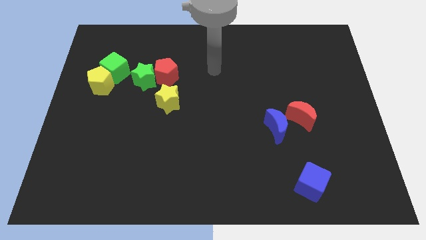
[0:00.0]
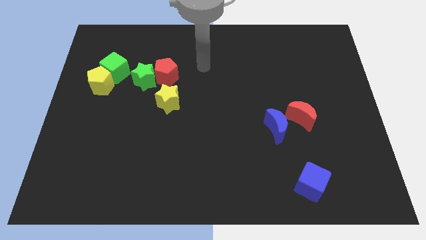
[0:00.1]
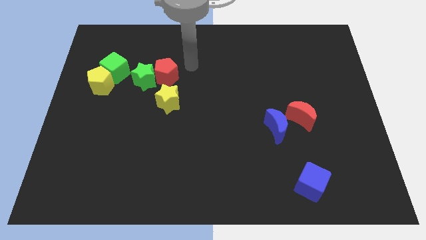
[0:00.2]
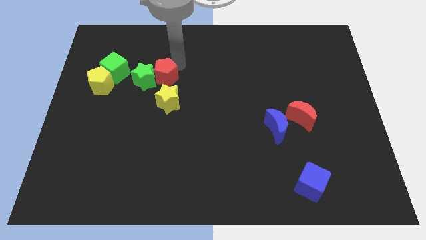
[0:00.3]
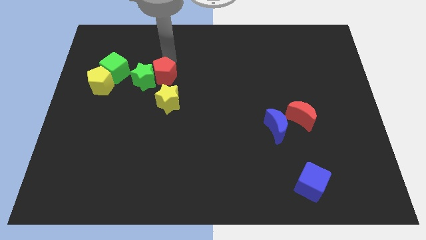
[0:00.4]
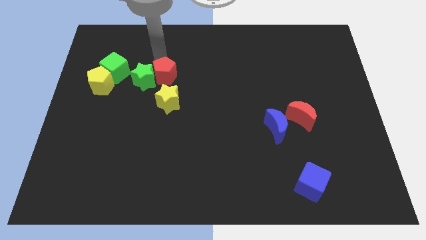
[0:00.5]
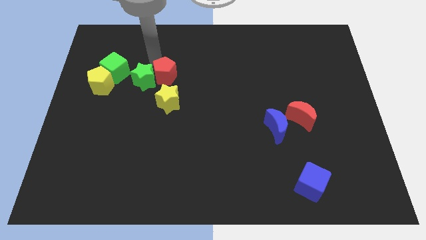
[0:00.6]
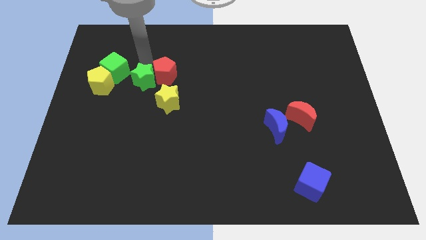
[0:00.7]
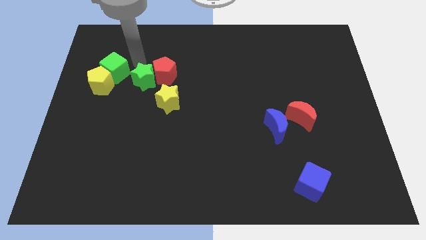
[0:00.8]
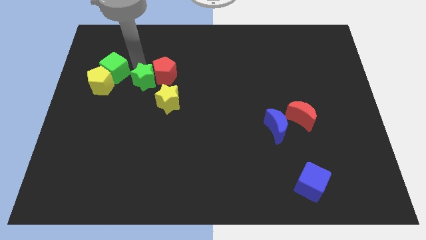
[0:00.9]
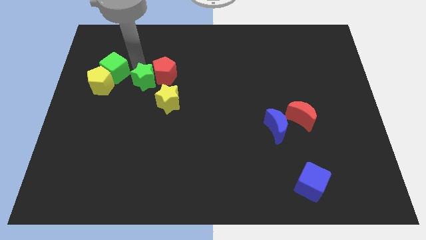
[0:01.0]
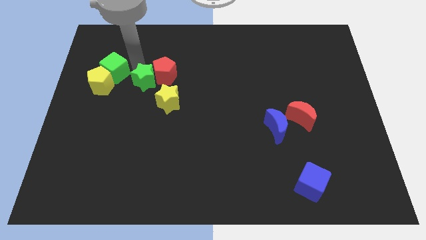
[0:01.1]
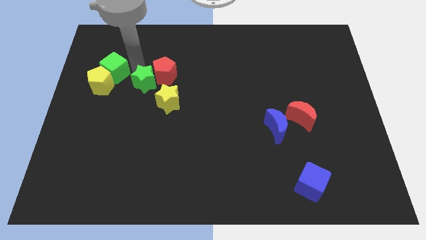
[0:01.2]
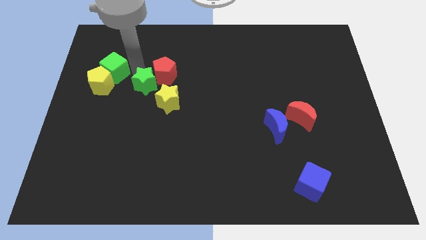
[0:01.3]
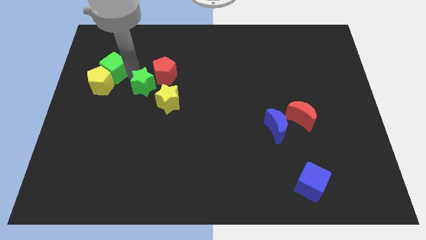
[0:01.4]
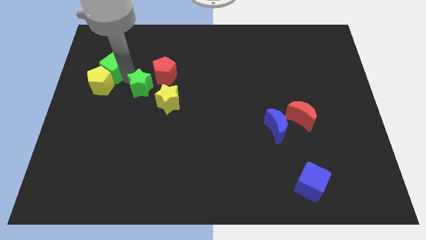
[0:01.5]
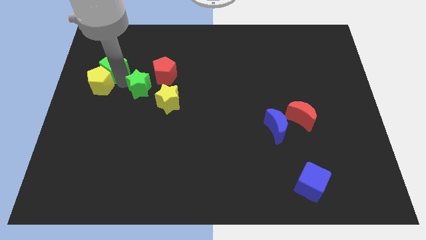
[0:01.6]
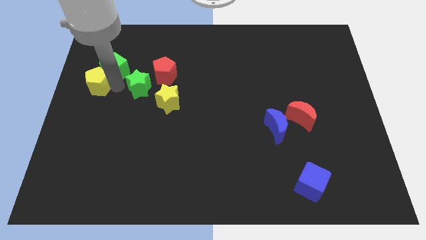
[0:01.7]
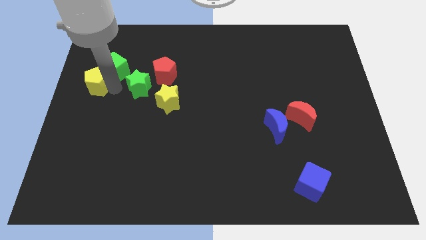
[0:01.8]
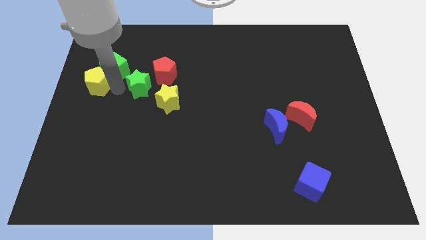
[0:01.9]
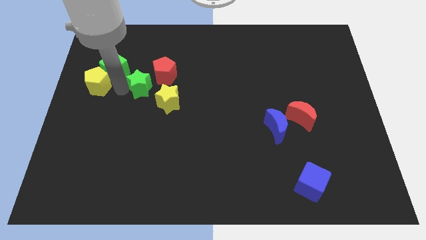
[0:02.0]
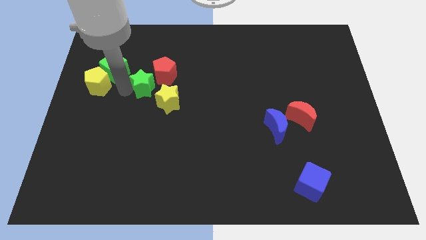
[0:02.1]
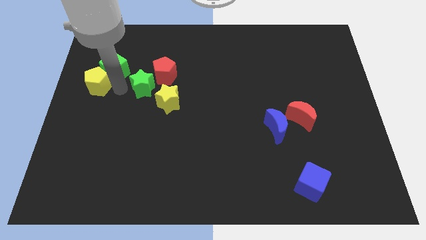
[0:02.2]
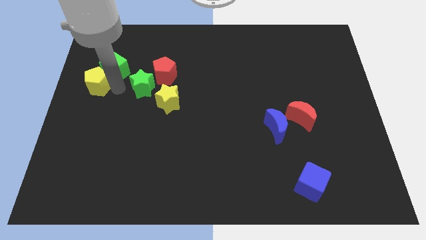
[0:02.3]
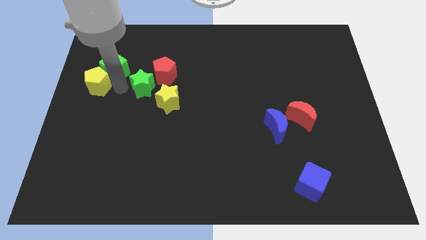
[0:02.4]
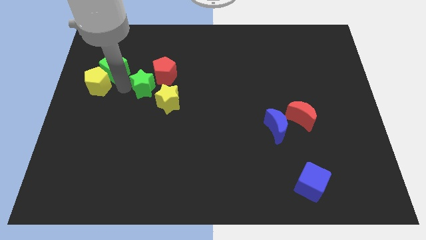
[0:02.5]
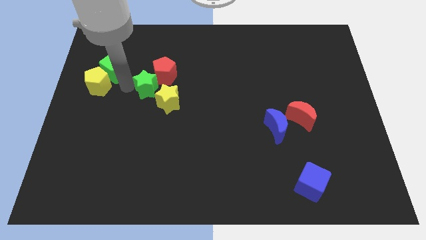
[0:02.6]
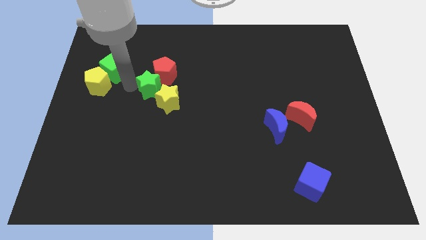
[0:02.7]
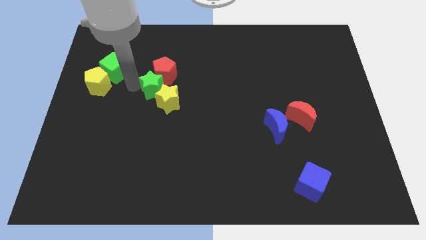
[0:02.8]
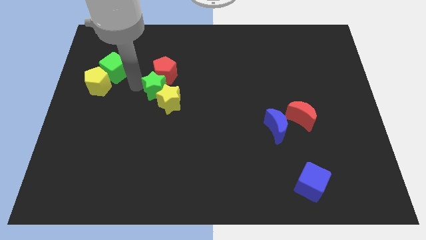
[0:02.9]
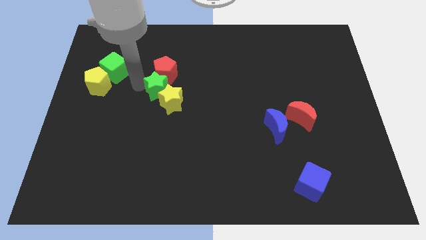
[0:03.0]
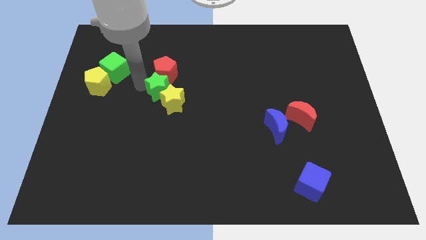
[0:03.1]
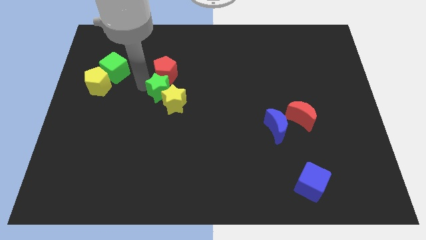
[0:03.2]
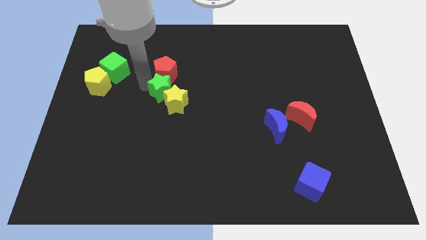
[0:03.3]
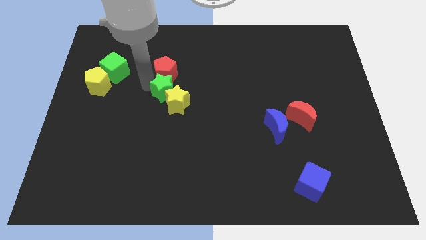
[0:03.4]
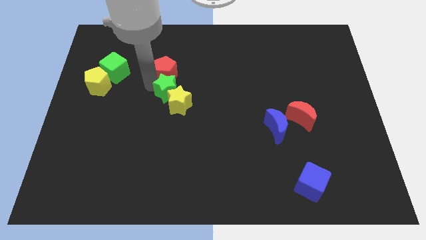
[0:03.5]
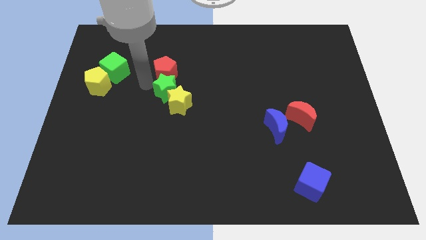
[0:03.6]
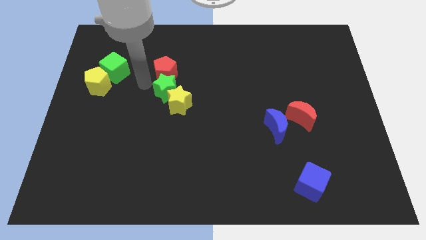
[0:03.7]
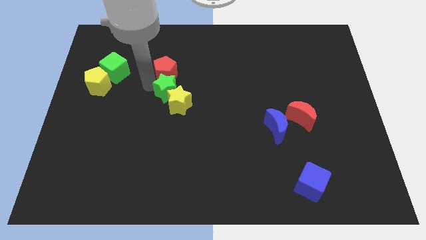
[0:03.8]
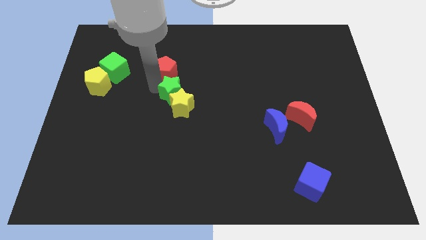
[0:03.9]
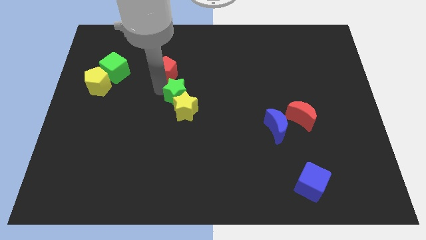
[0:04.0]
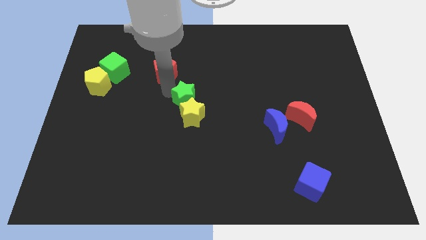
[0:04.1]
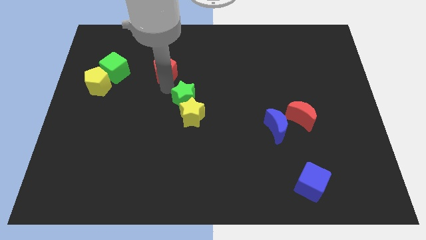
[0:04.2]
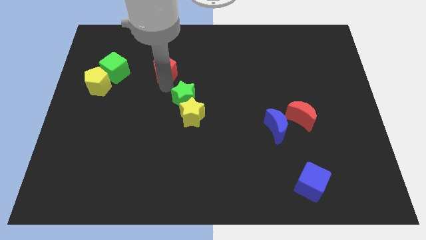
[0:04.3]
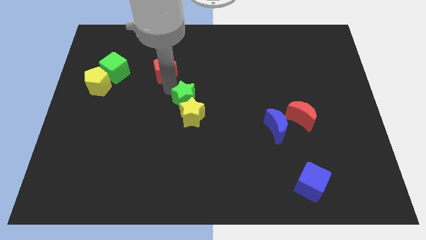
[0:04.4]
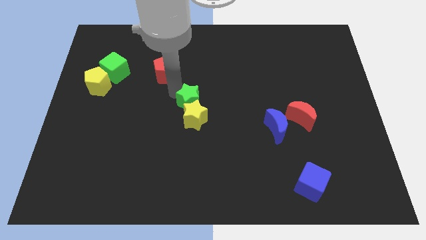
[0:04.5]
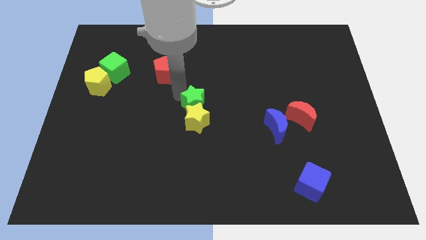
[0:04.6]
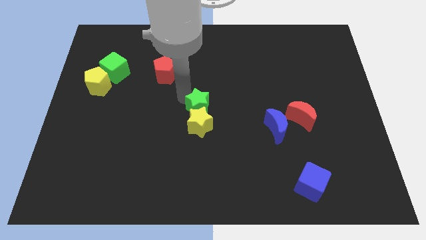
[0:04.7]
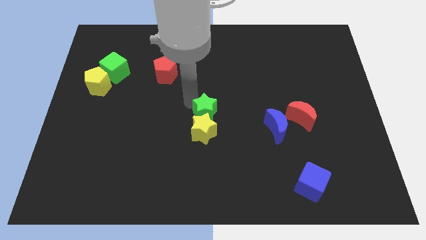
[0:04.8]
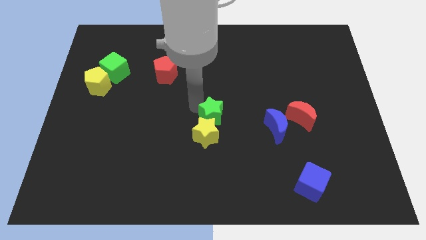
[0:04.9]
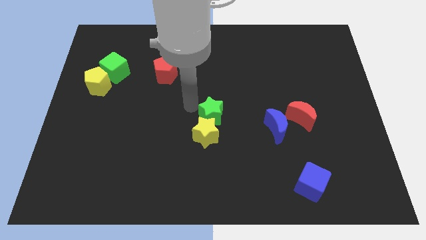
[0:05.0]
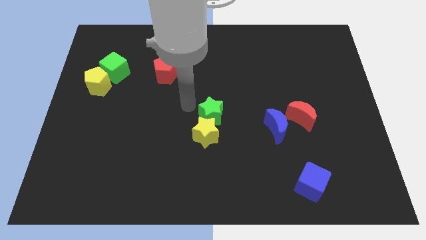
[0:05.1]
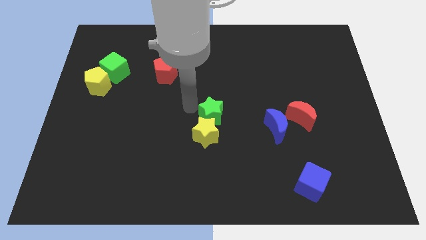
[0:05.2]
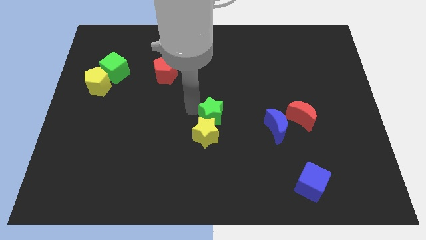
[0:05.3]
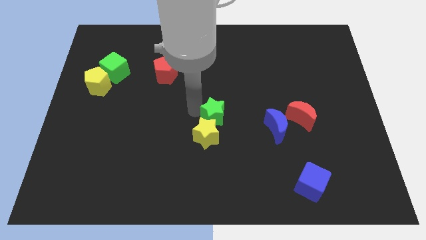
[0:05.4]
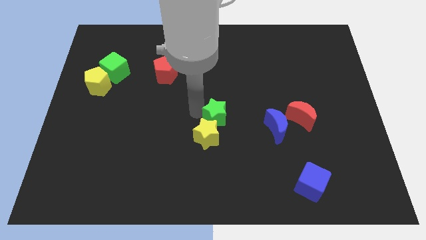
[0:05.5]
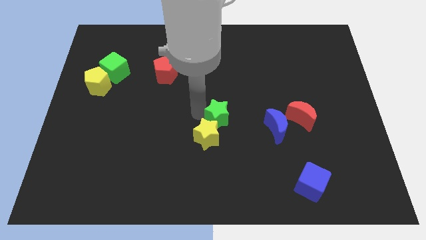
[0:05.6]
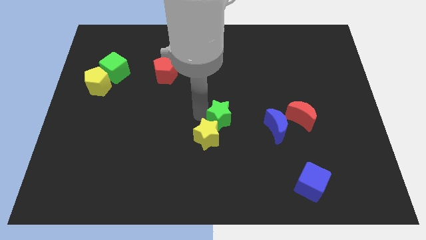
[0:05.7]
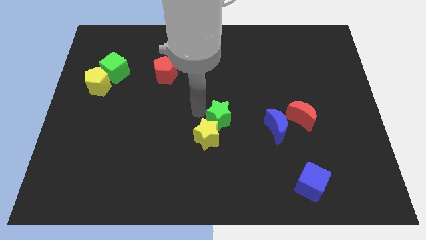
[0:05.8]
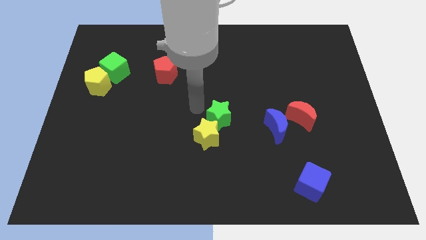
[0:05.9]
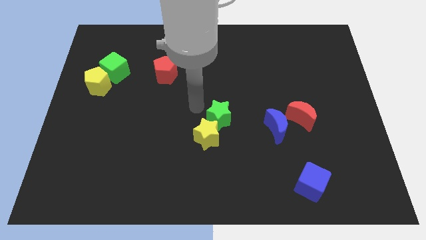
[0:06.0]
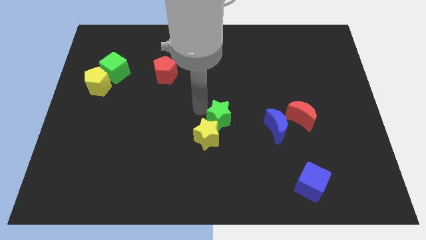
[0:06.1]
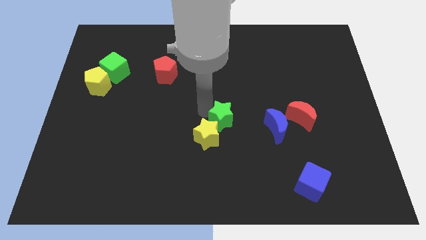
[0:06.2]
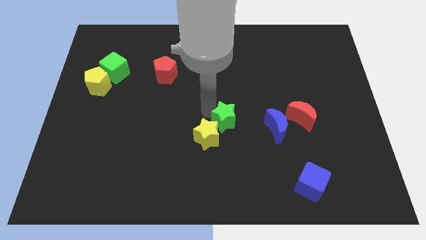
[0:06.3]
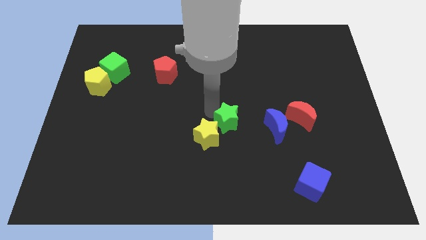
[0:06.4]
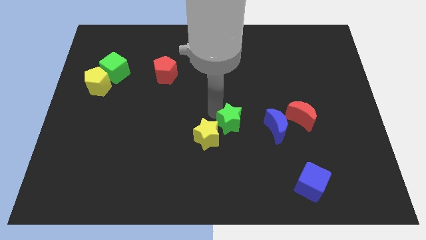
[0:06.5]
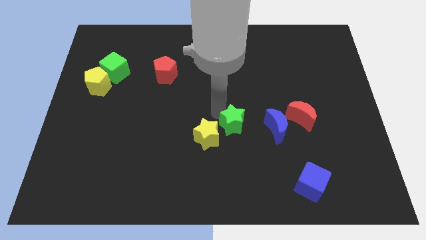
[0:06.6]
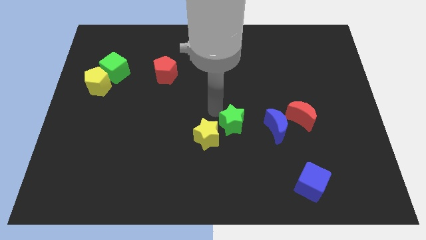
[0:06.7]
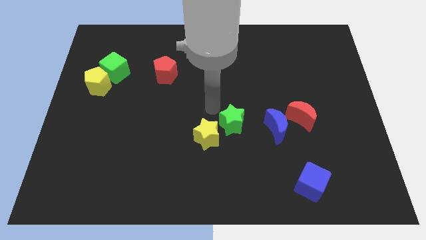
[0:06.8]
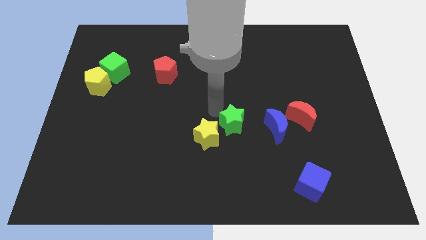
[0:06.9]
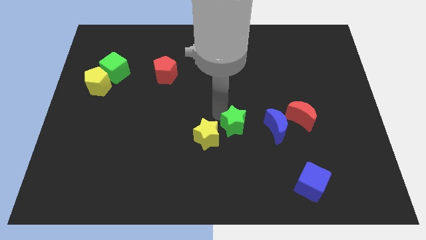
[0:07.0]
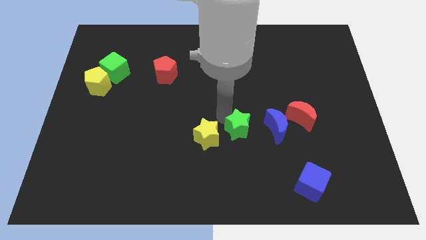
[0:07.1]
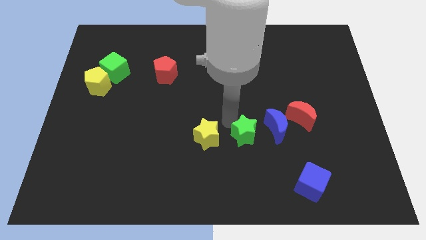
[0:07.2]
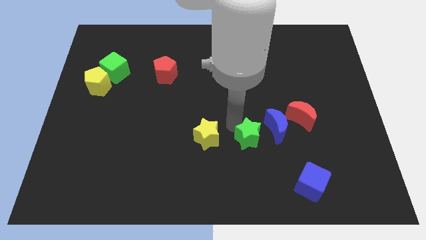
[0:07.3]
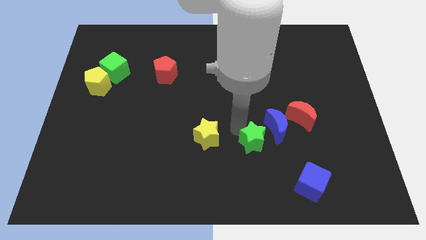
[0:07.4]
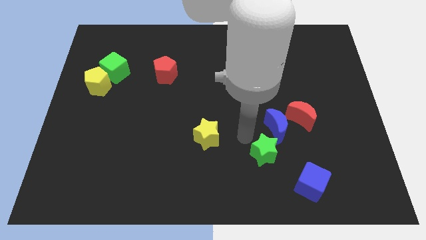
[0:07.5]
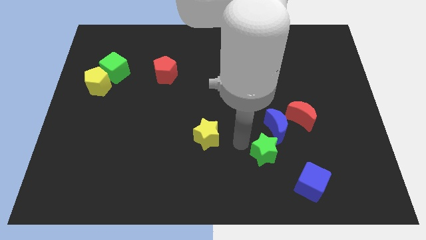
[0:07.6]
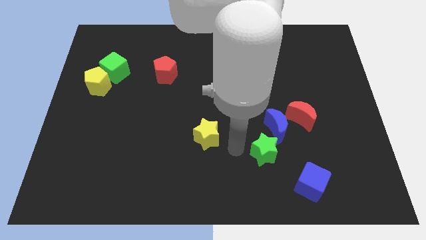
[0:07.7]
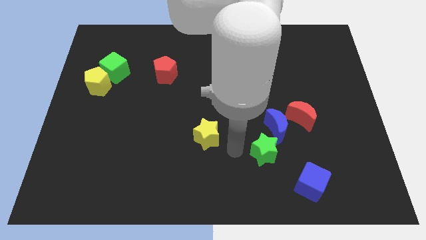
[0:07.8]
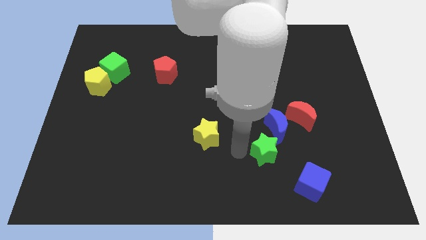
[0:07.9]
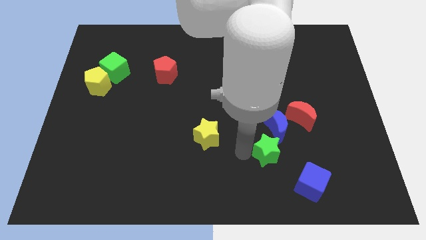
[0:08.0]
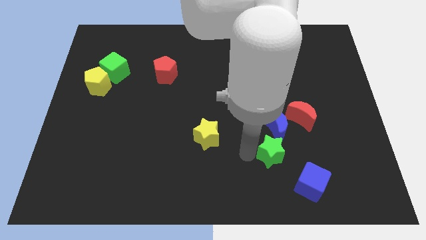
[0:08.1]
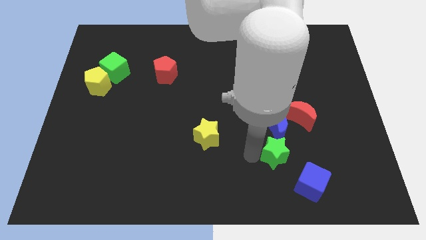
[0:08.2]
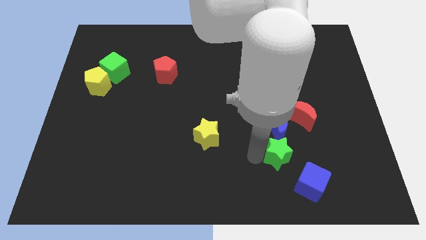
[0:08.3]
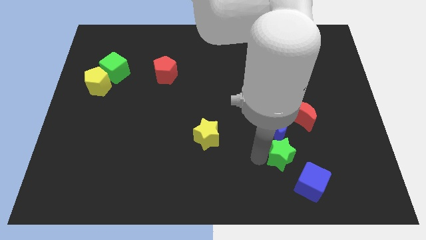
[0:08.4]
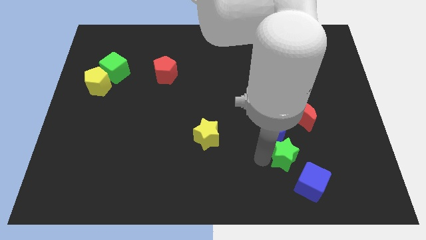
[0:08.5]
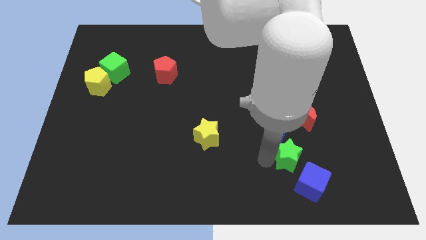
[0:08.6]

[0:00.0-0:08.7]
push the green star to the bottom side of the red moon
